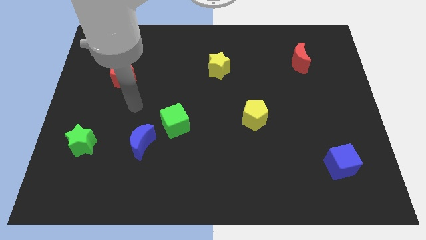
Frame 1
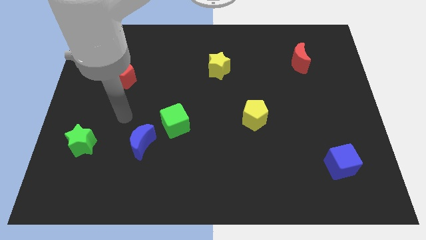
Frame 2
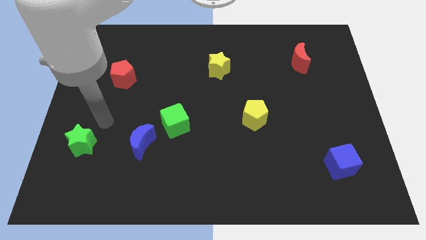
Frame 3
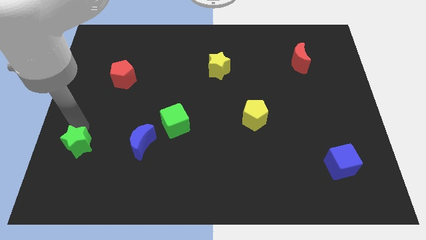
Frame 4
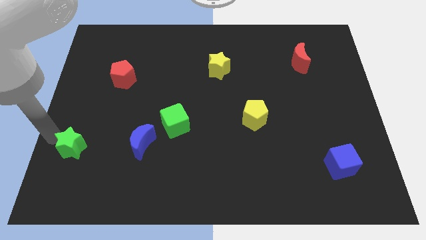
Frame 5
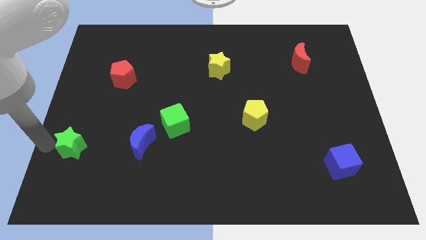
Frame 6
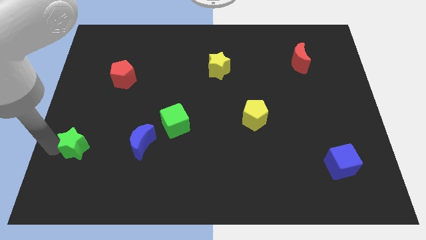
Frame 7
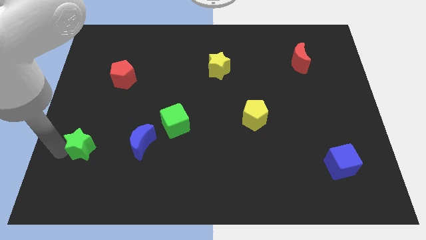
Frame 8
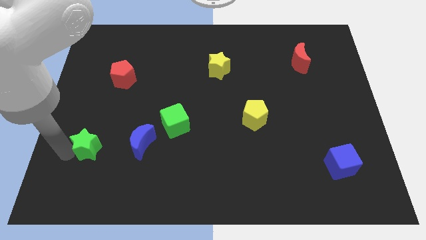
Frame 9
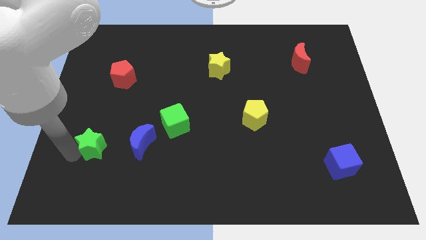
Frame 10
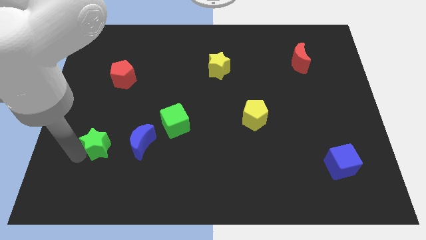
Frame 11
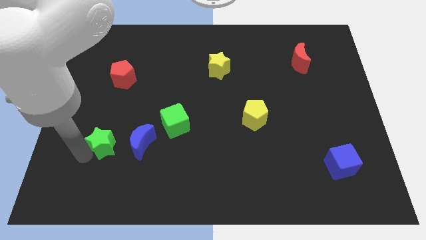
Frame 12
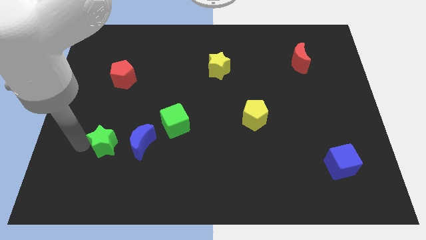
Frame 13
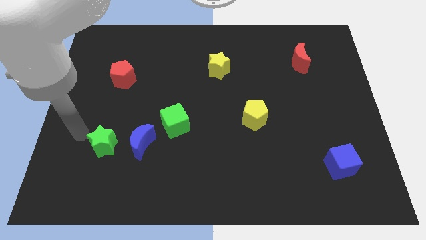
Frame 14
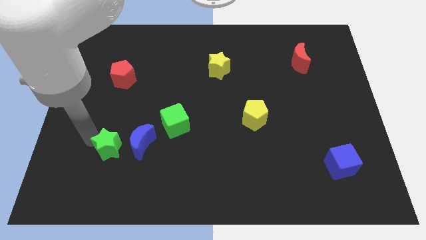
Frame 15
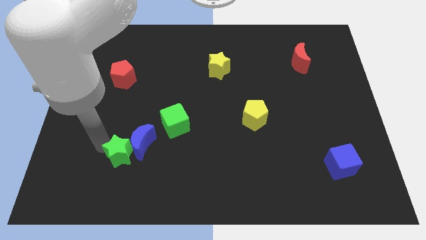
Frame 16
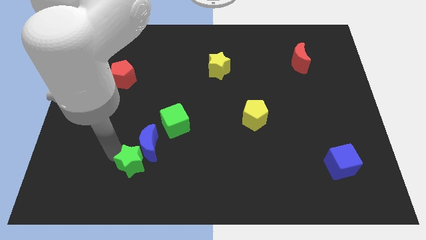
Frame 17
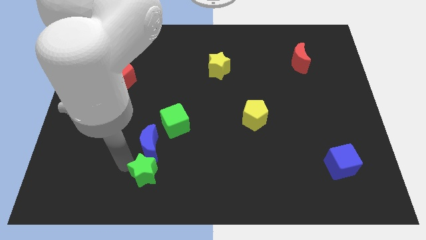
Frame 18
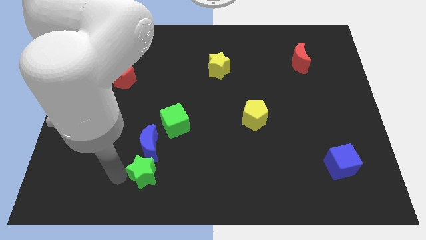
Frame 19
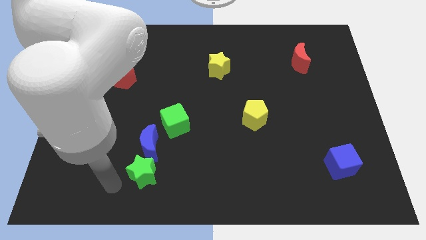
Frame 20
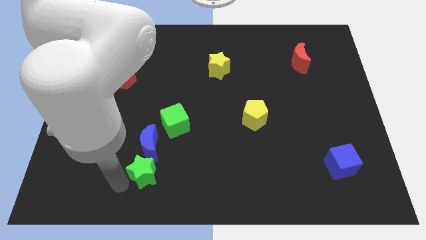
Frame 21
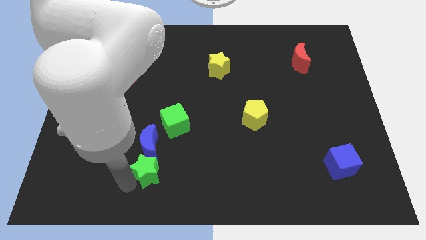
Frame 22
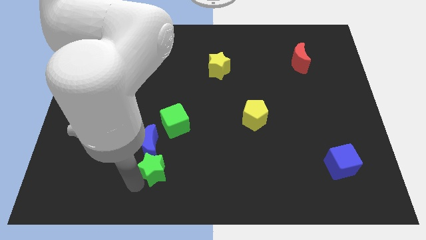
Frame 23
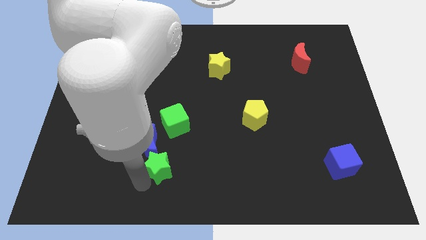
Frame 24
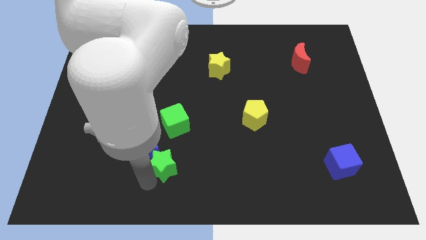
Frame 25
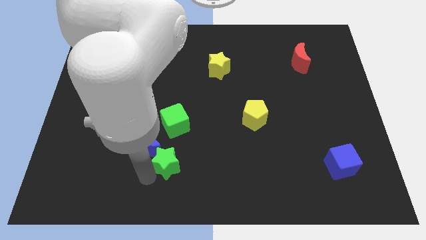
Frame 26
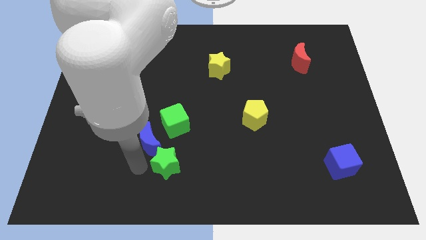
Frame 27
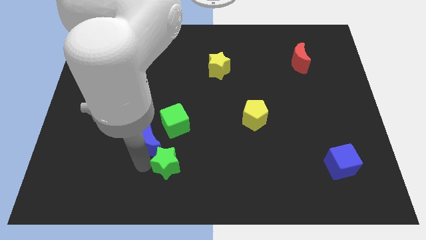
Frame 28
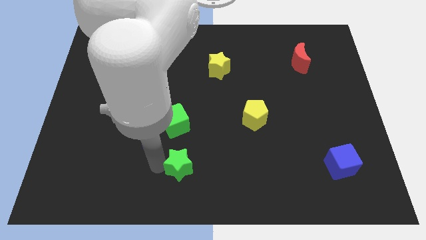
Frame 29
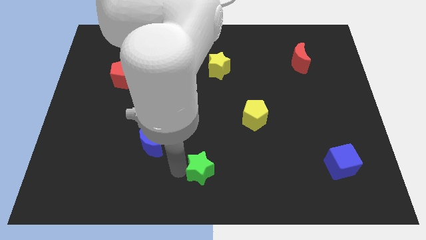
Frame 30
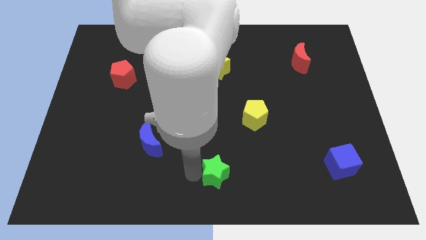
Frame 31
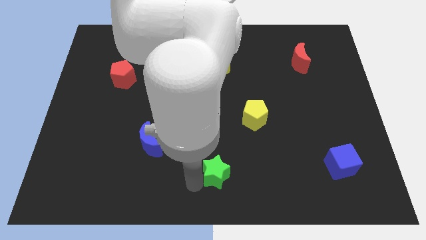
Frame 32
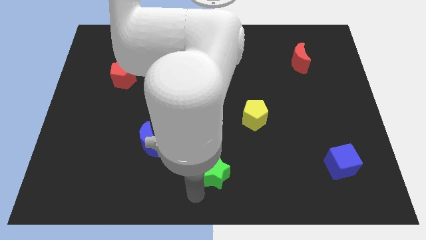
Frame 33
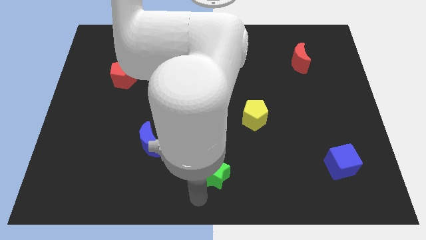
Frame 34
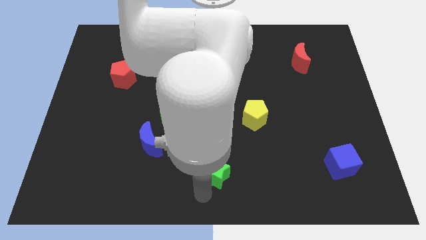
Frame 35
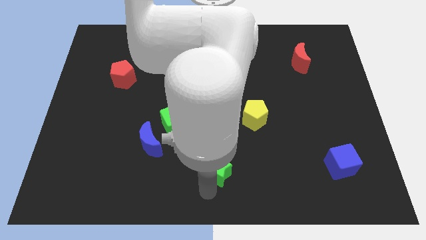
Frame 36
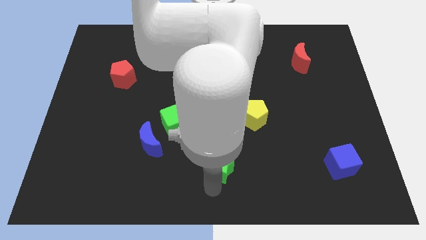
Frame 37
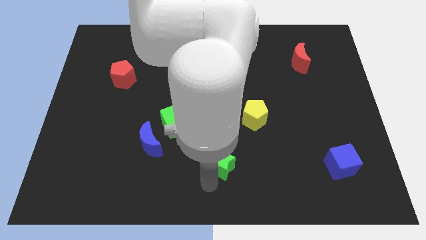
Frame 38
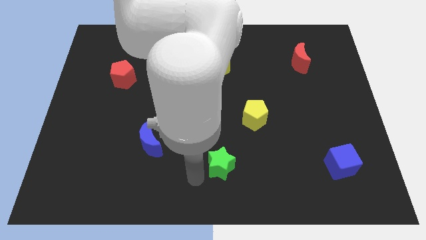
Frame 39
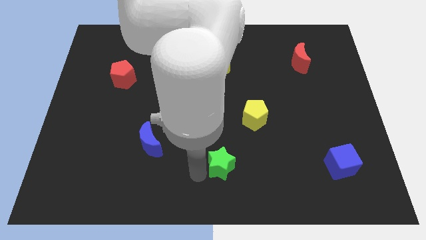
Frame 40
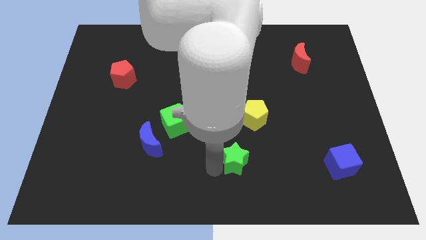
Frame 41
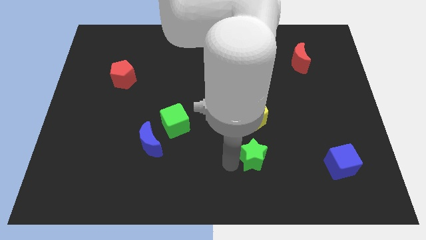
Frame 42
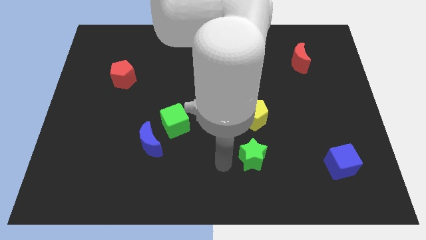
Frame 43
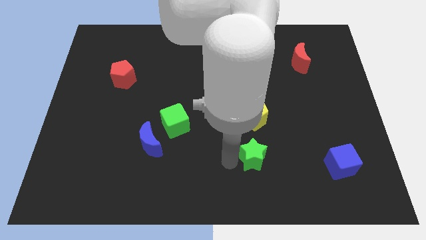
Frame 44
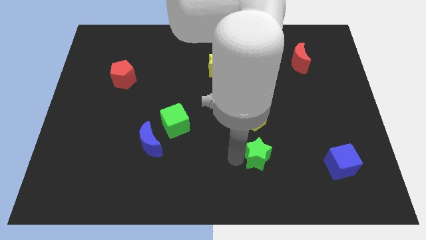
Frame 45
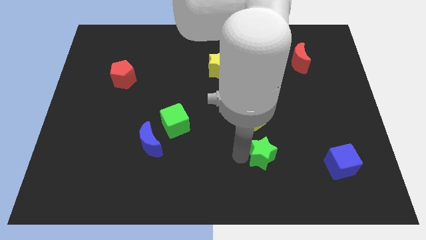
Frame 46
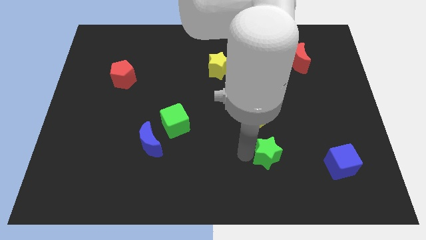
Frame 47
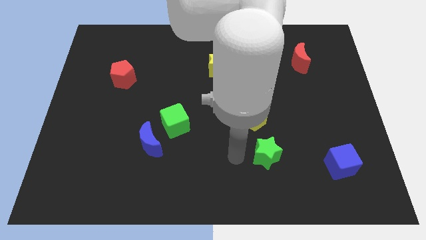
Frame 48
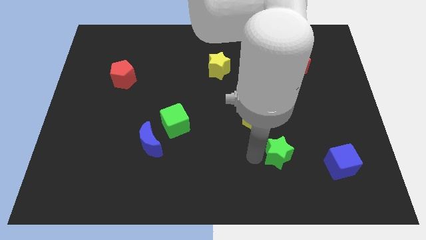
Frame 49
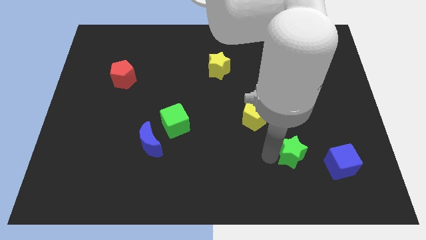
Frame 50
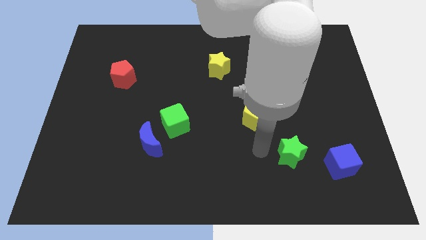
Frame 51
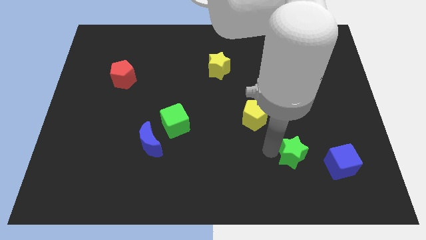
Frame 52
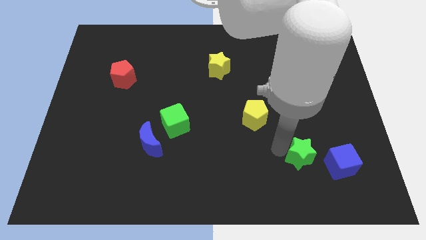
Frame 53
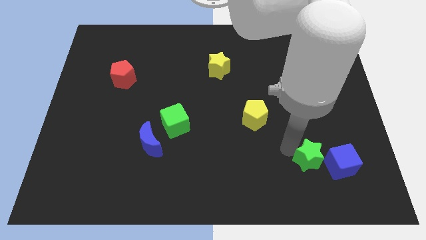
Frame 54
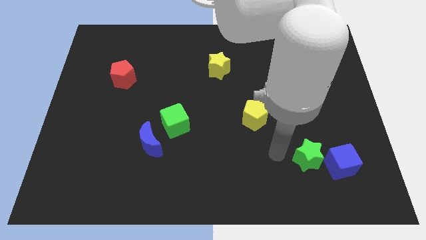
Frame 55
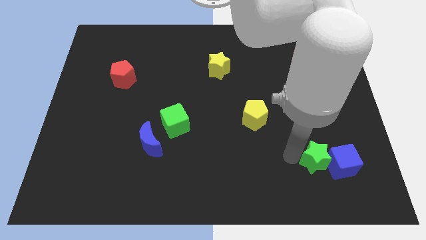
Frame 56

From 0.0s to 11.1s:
push the green star to the blue cube

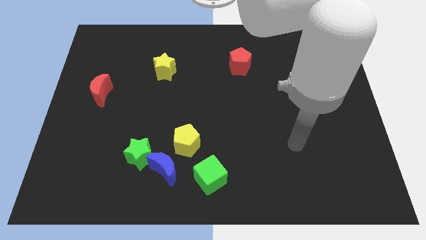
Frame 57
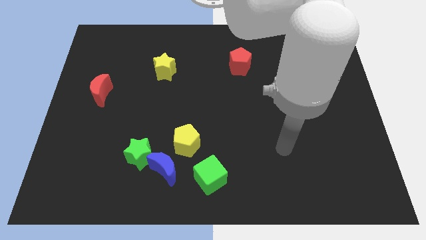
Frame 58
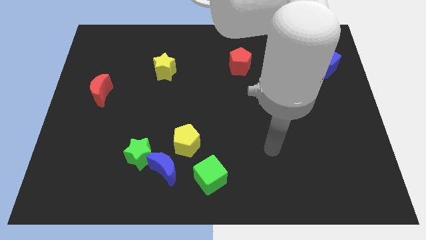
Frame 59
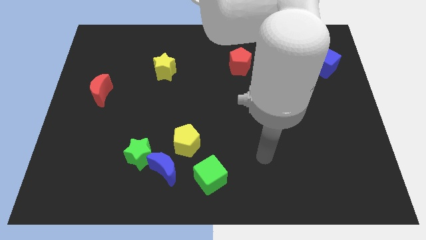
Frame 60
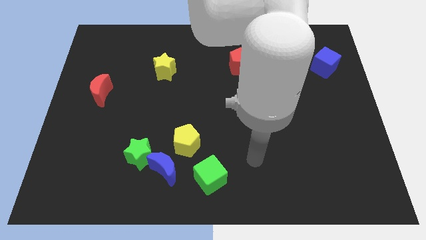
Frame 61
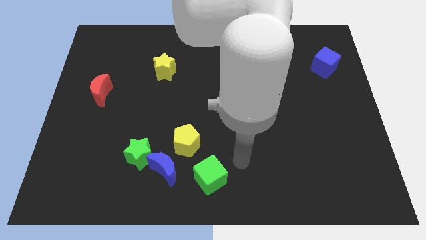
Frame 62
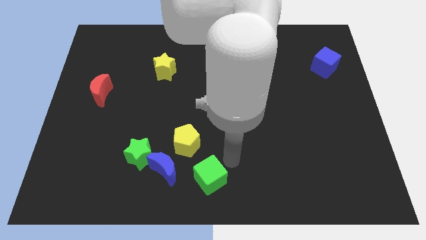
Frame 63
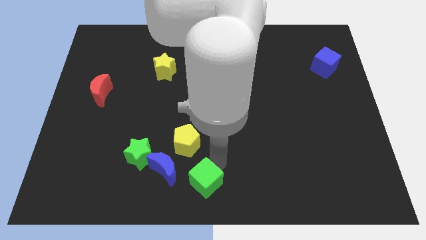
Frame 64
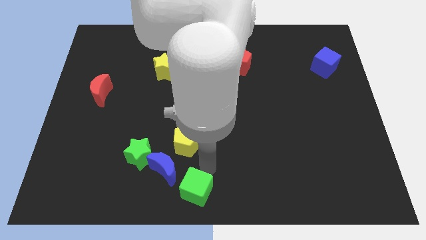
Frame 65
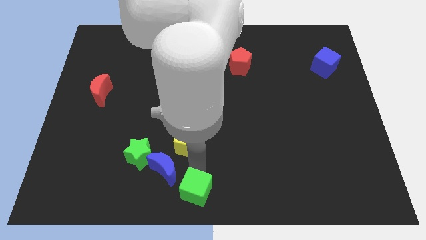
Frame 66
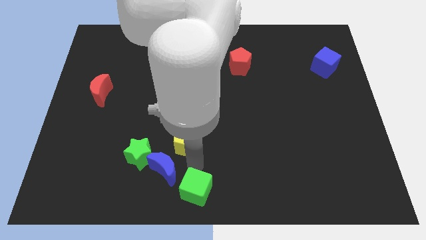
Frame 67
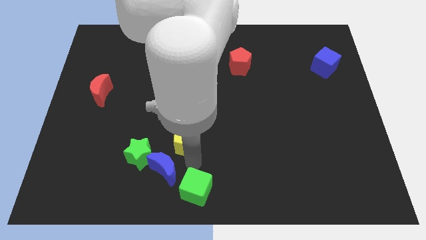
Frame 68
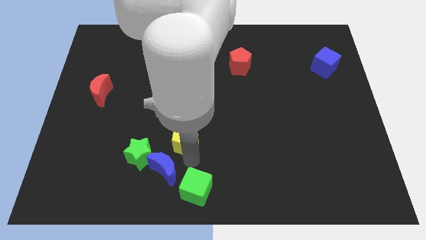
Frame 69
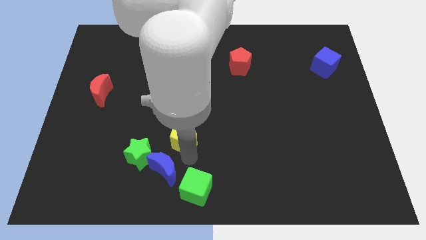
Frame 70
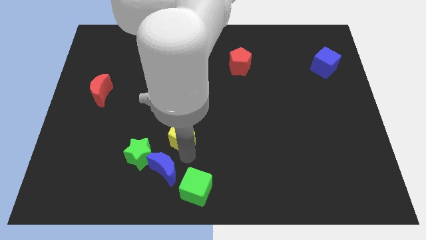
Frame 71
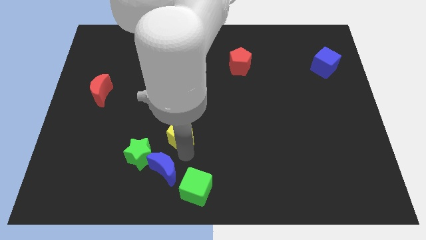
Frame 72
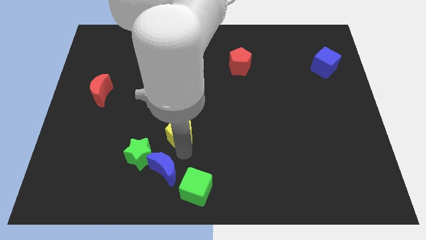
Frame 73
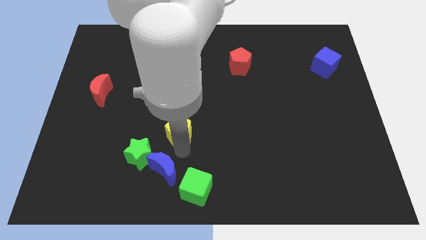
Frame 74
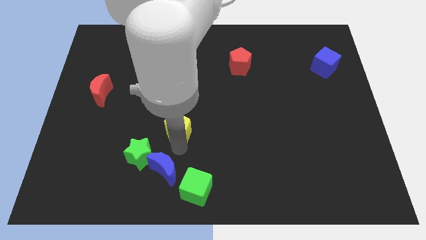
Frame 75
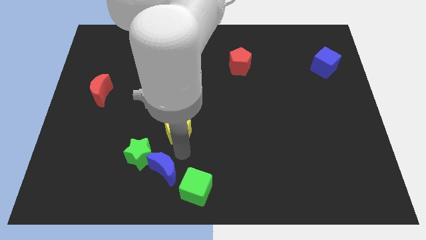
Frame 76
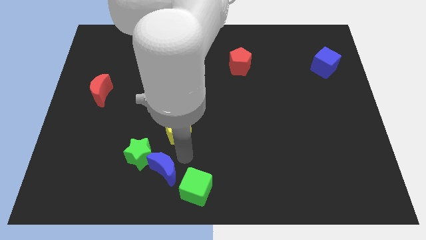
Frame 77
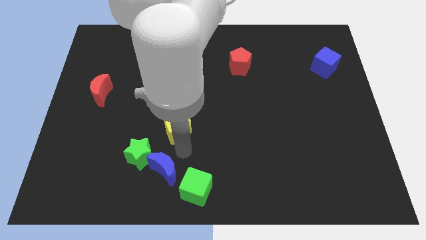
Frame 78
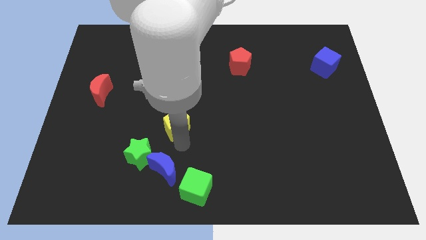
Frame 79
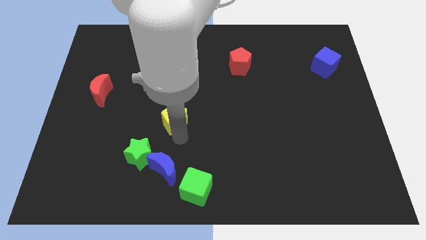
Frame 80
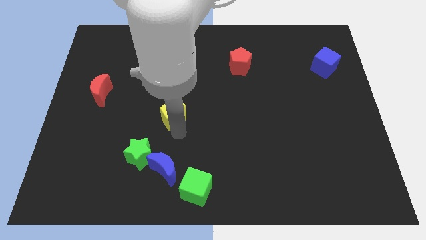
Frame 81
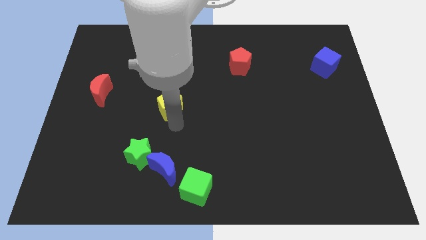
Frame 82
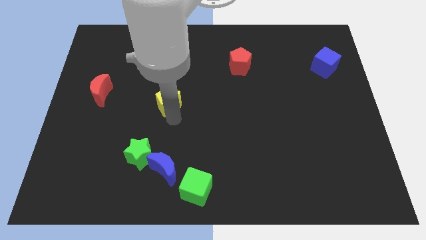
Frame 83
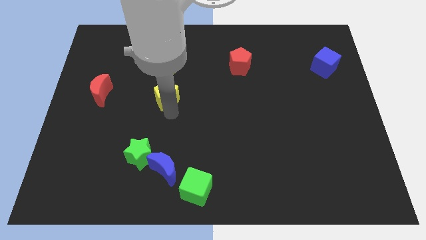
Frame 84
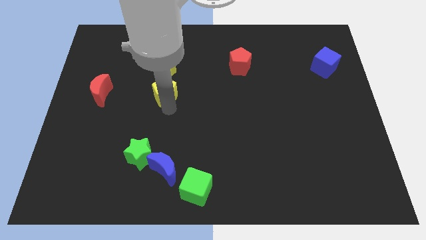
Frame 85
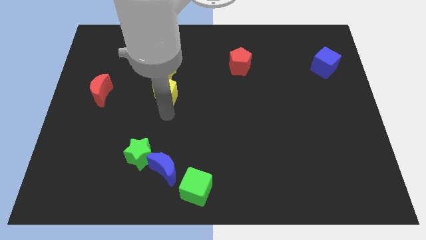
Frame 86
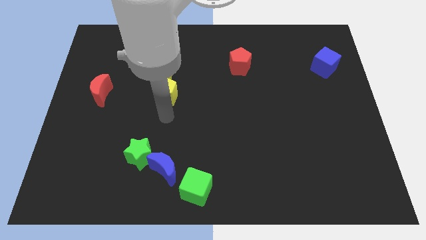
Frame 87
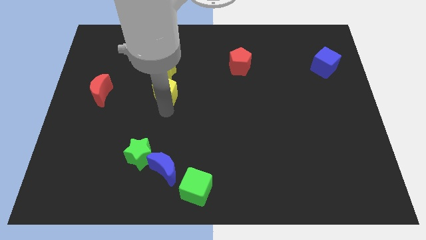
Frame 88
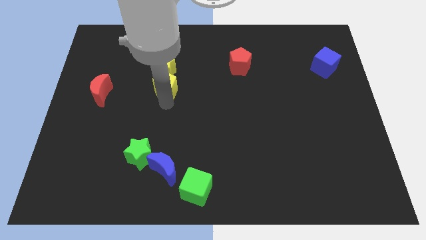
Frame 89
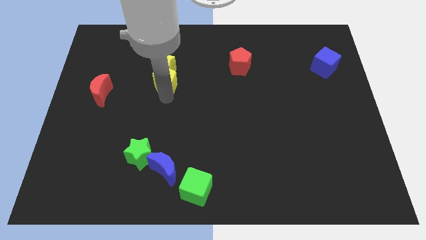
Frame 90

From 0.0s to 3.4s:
push the yellow pentagon towards the yellow star
